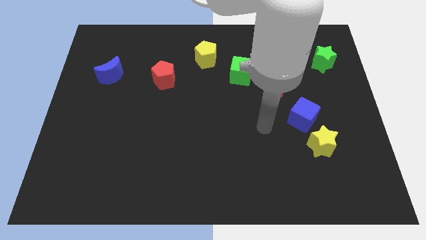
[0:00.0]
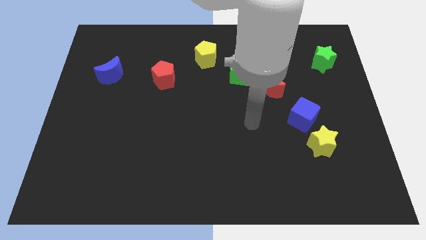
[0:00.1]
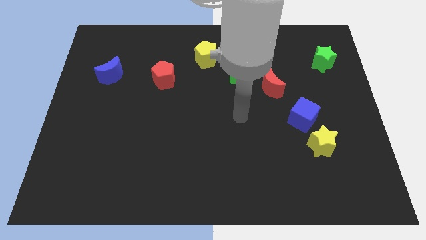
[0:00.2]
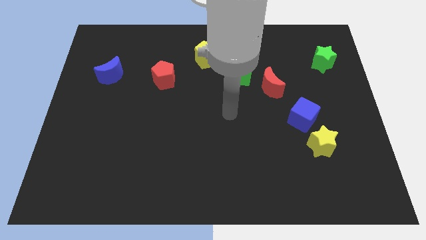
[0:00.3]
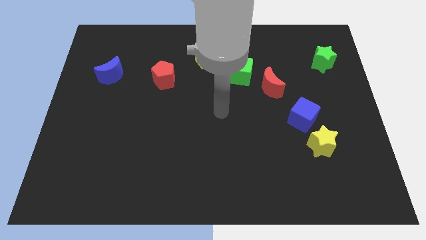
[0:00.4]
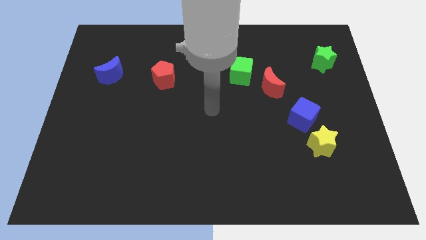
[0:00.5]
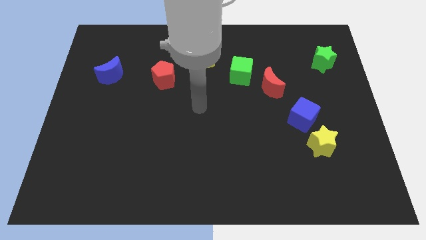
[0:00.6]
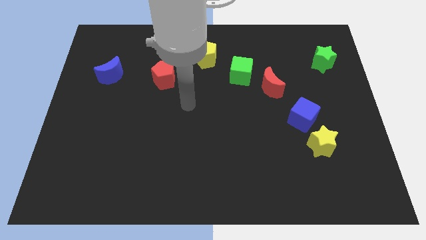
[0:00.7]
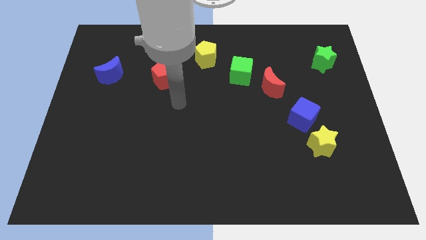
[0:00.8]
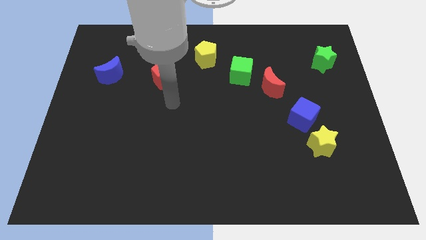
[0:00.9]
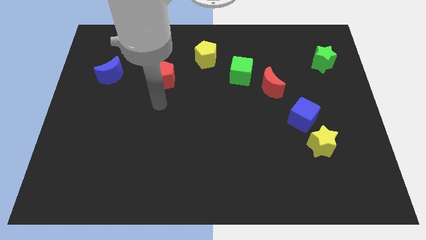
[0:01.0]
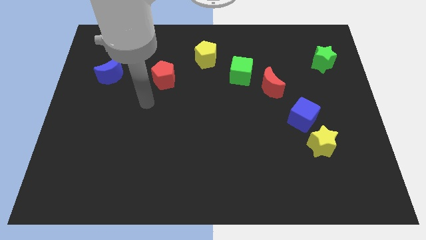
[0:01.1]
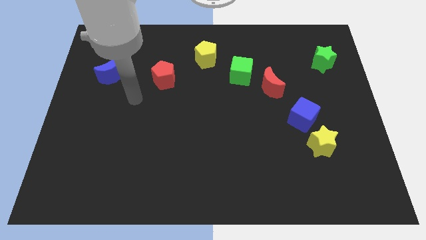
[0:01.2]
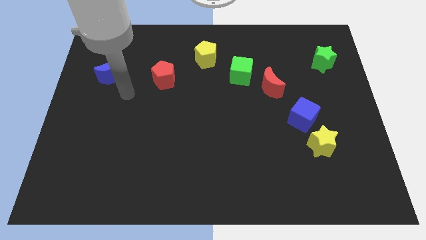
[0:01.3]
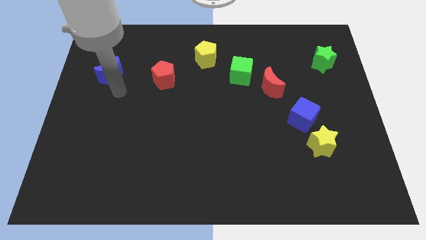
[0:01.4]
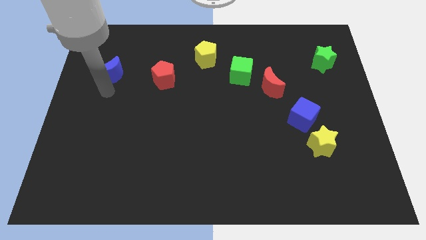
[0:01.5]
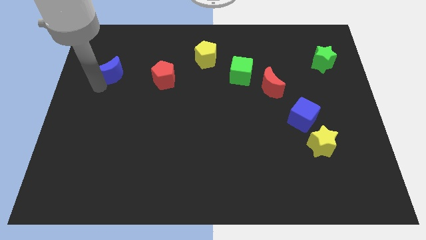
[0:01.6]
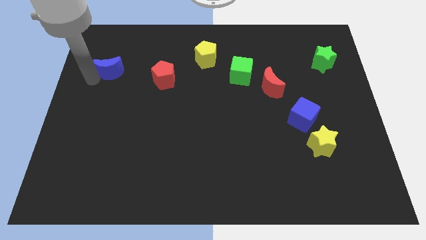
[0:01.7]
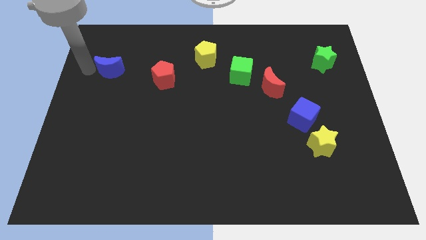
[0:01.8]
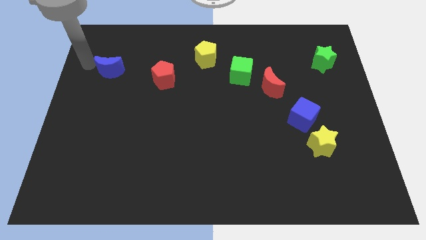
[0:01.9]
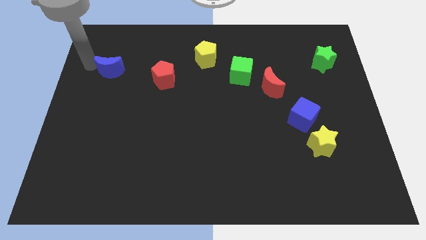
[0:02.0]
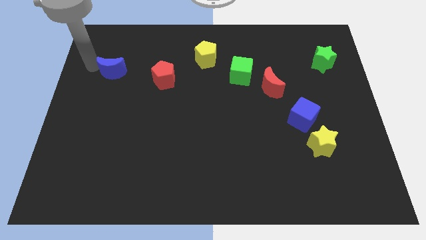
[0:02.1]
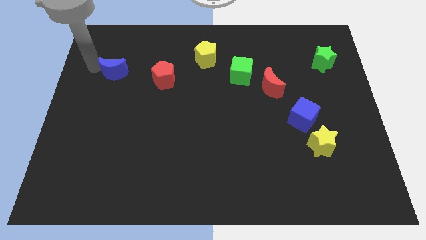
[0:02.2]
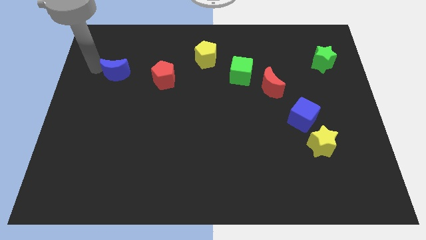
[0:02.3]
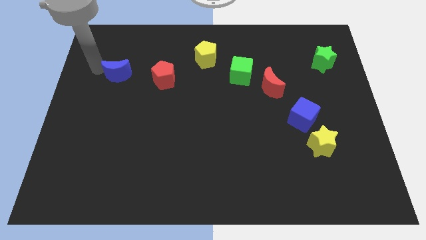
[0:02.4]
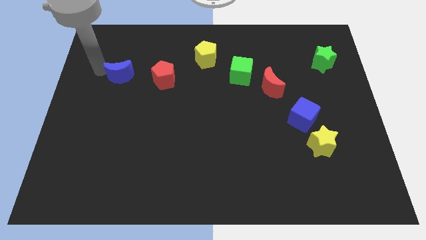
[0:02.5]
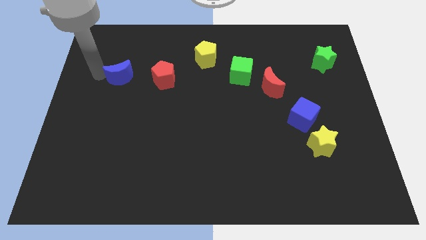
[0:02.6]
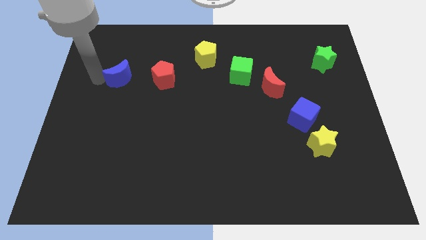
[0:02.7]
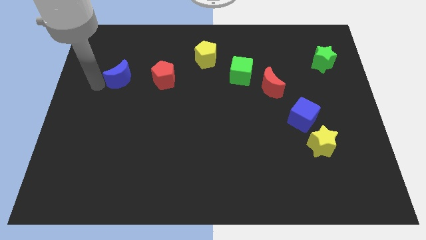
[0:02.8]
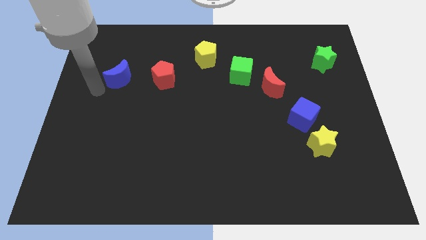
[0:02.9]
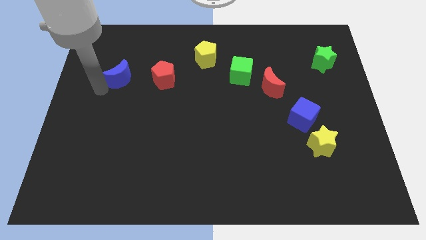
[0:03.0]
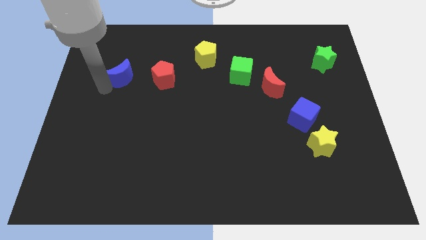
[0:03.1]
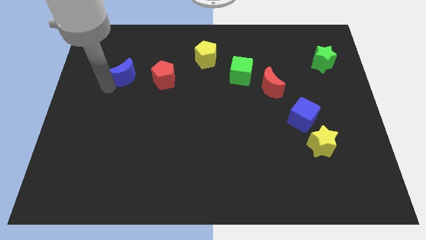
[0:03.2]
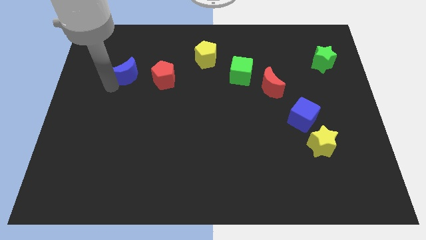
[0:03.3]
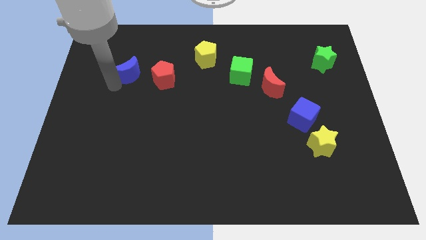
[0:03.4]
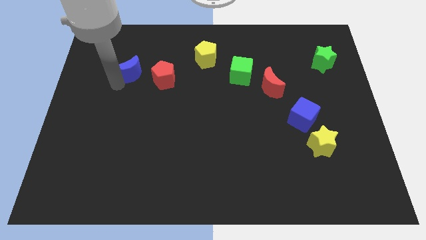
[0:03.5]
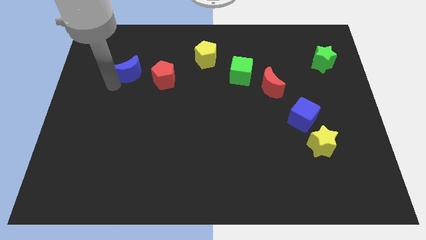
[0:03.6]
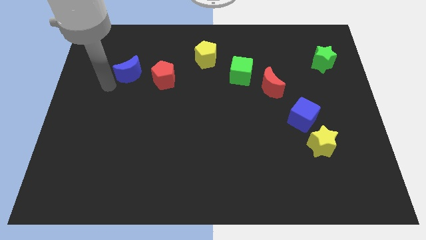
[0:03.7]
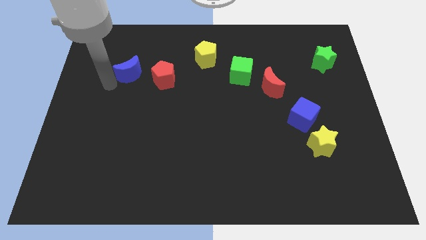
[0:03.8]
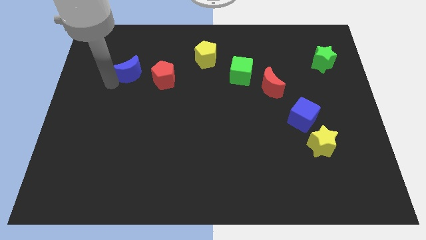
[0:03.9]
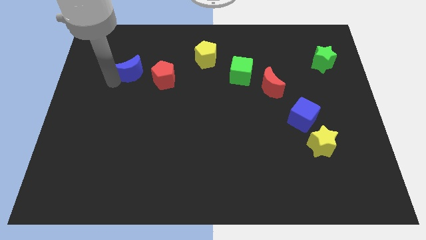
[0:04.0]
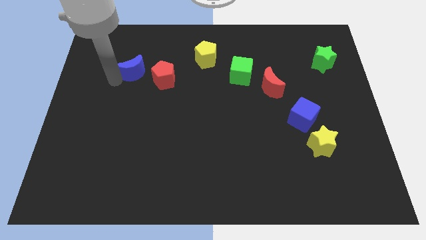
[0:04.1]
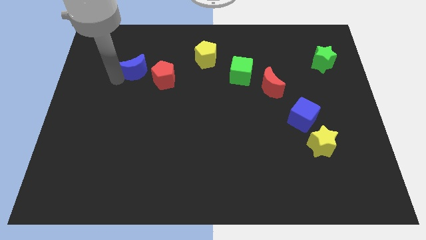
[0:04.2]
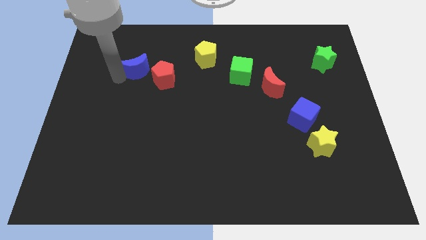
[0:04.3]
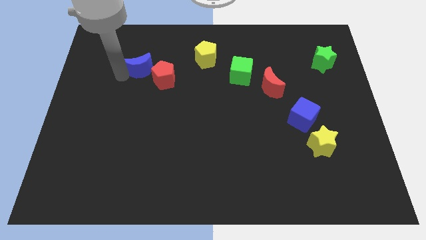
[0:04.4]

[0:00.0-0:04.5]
slide the blue moon somewhat right

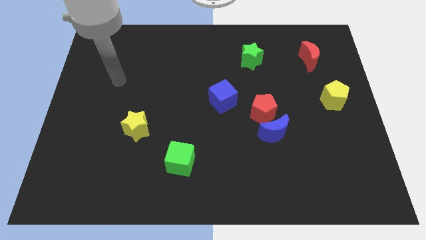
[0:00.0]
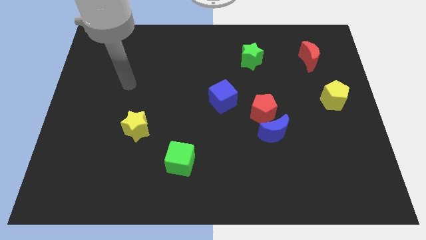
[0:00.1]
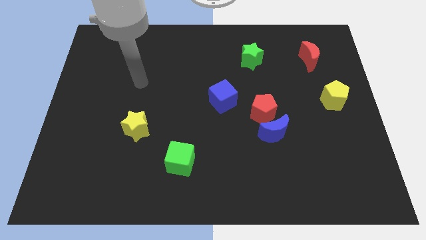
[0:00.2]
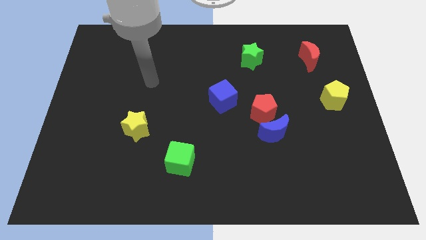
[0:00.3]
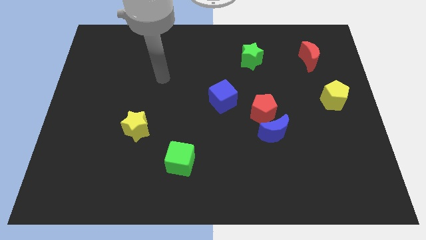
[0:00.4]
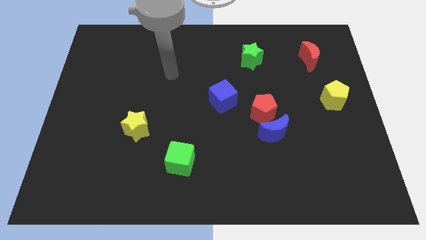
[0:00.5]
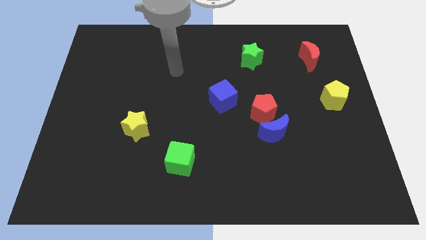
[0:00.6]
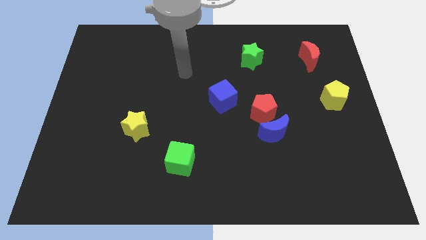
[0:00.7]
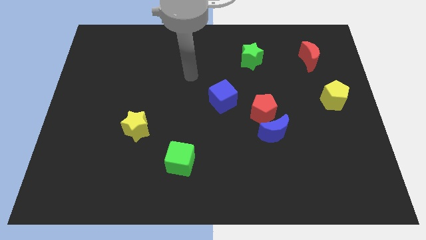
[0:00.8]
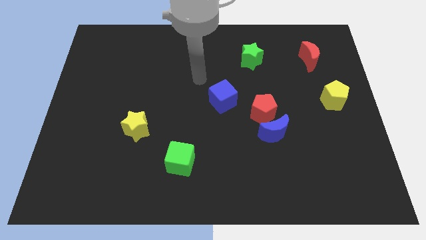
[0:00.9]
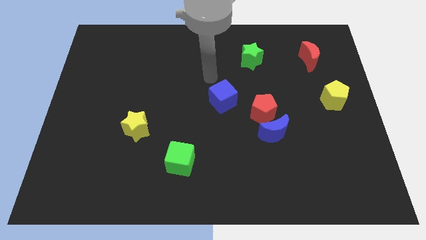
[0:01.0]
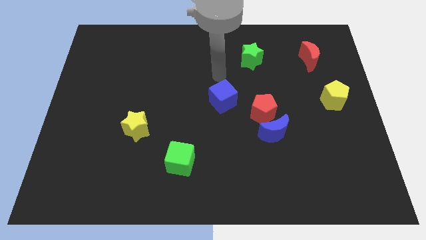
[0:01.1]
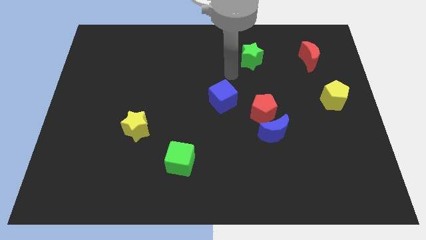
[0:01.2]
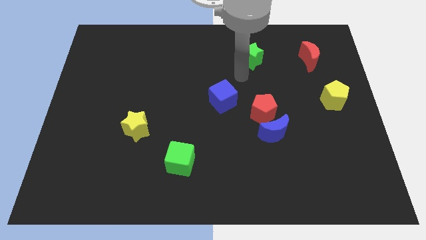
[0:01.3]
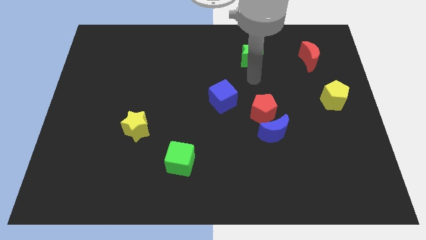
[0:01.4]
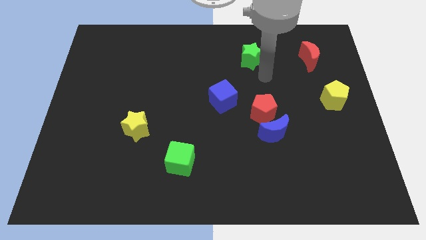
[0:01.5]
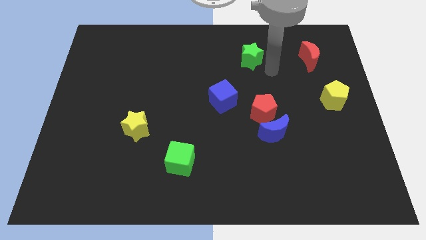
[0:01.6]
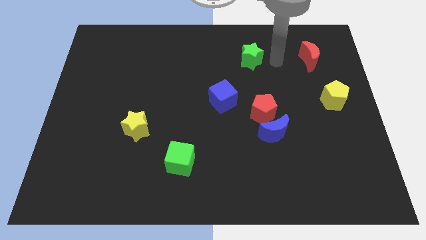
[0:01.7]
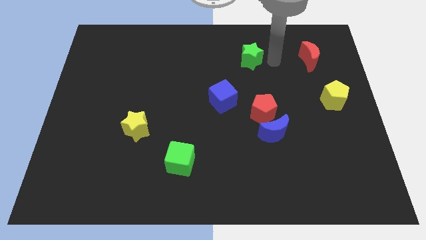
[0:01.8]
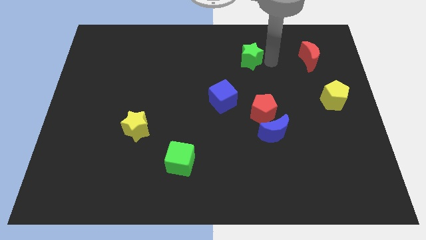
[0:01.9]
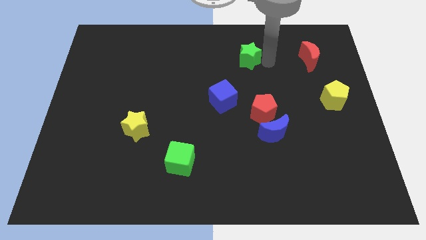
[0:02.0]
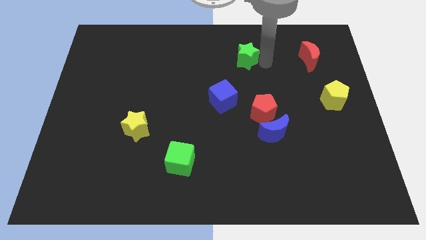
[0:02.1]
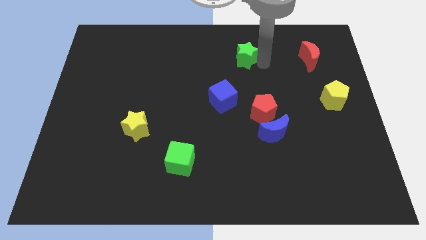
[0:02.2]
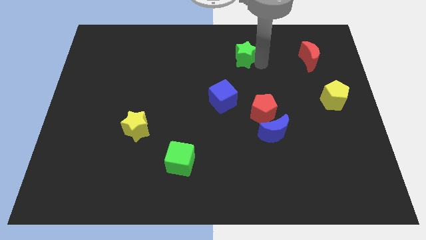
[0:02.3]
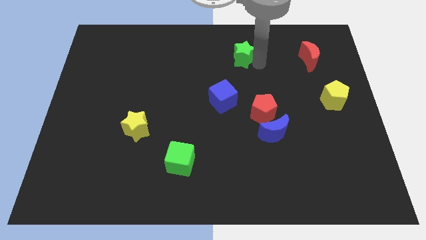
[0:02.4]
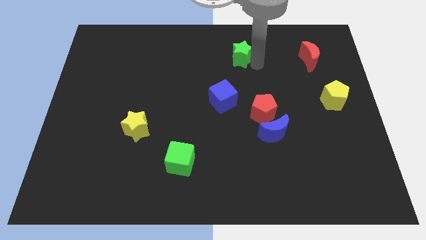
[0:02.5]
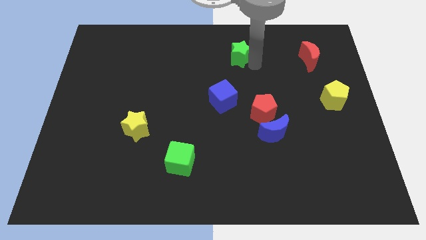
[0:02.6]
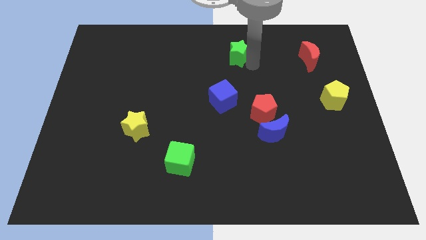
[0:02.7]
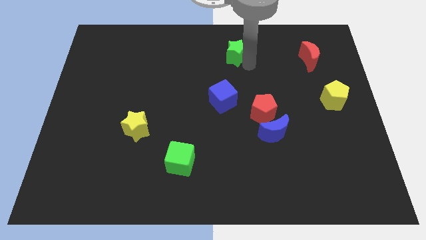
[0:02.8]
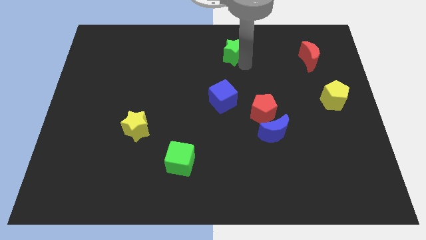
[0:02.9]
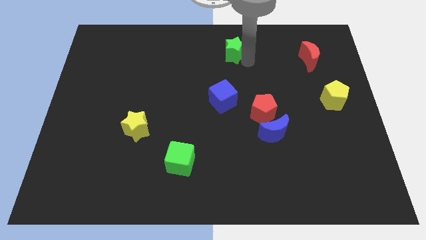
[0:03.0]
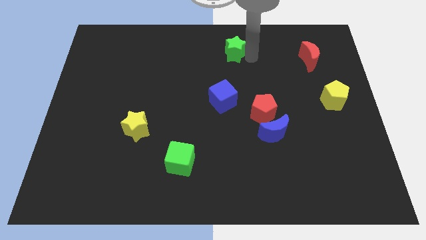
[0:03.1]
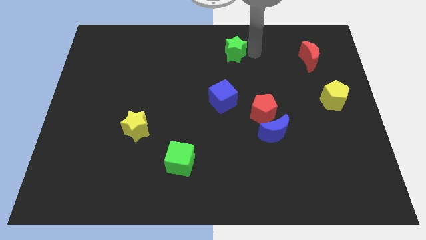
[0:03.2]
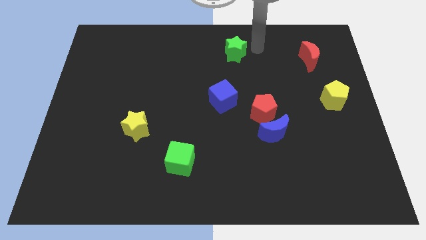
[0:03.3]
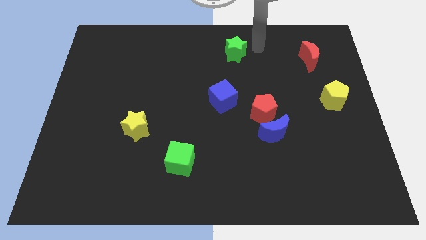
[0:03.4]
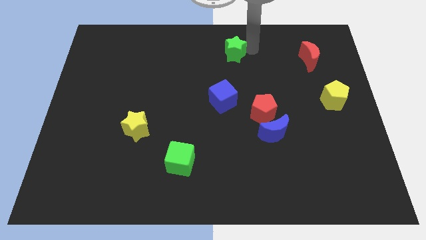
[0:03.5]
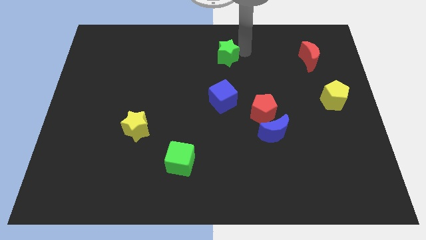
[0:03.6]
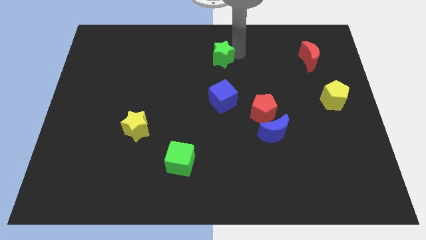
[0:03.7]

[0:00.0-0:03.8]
move the green star to the left somewhat
